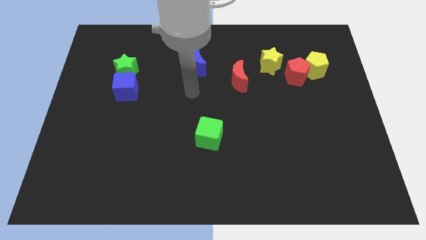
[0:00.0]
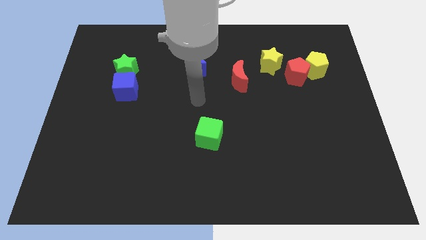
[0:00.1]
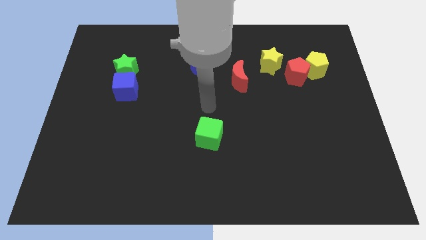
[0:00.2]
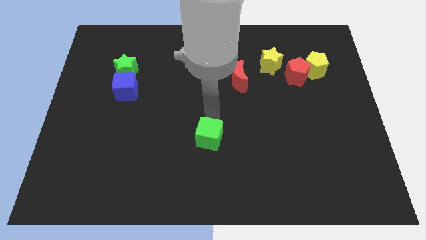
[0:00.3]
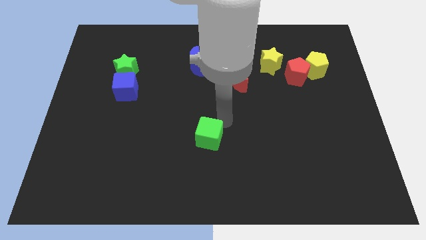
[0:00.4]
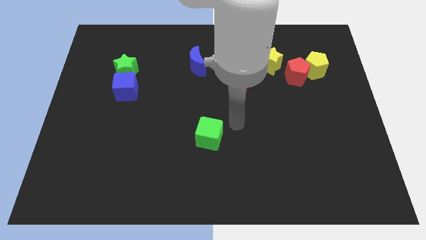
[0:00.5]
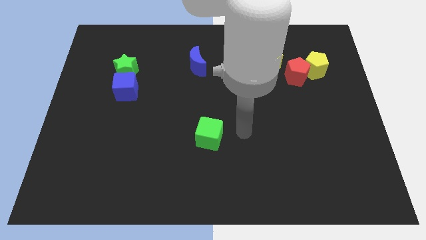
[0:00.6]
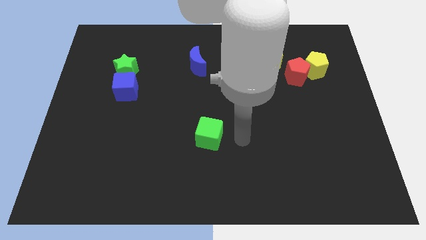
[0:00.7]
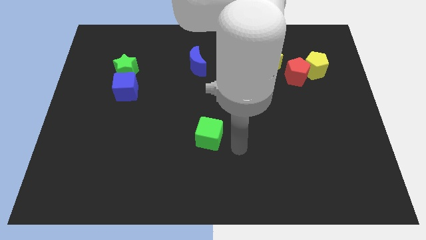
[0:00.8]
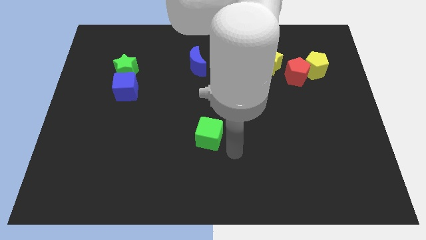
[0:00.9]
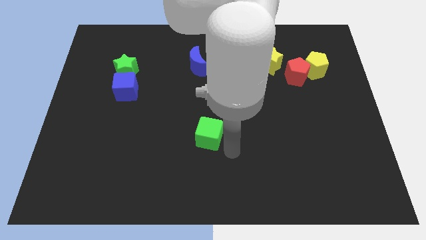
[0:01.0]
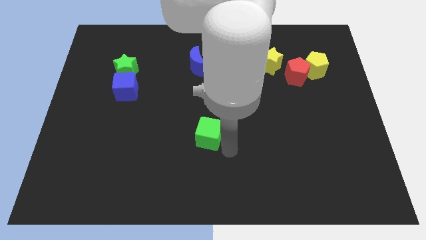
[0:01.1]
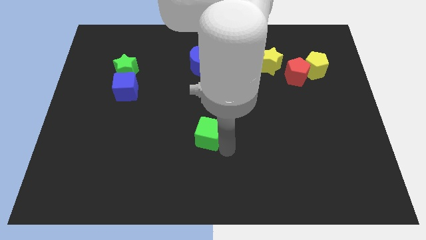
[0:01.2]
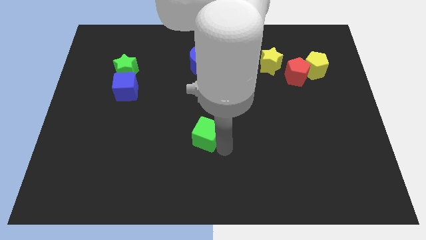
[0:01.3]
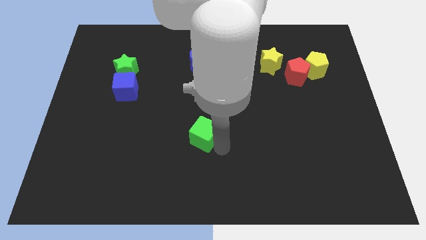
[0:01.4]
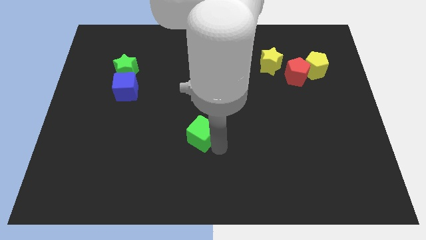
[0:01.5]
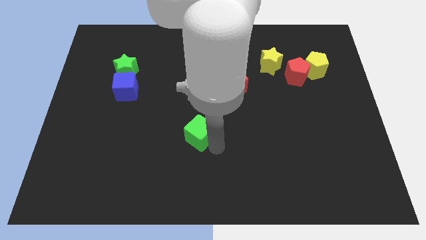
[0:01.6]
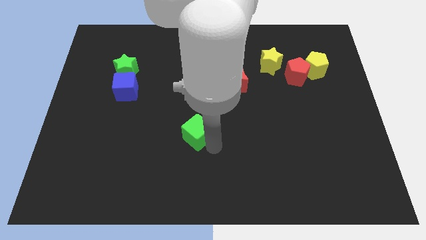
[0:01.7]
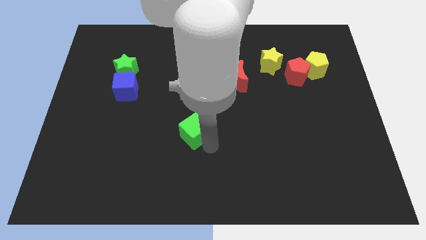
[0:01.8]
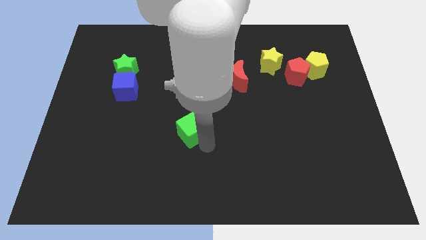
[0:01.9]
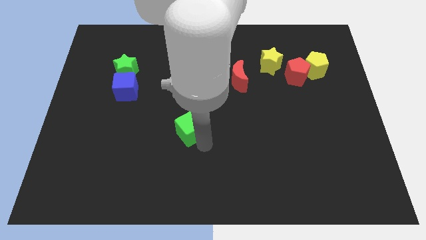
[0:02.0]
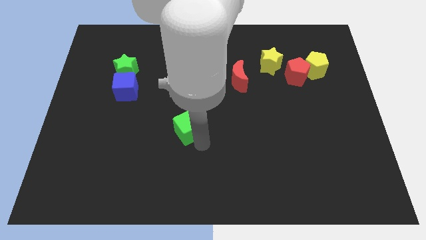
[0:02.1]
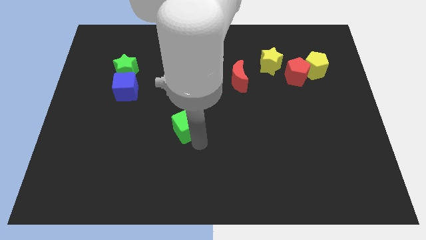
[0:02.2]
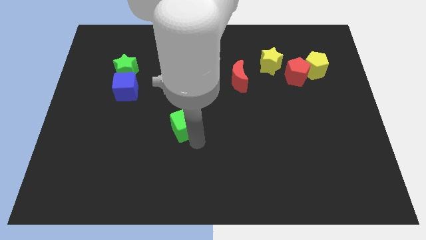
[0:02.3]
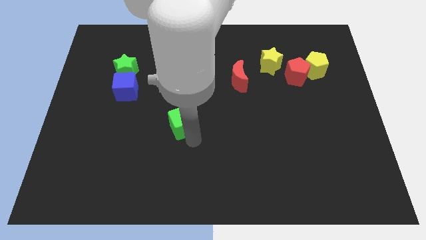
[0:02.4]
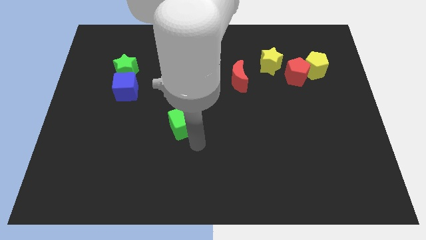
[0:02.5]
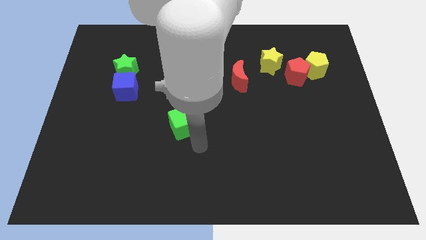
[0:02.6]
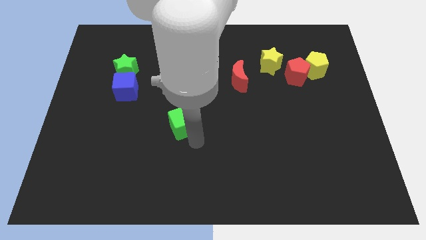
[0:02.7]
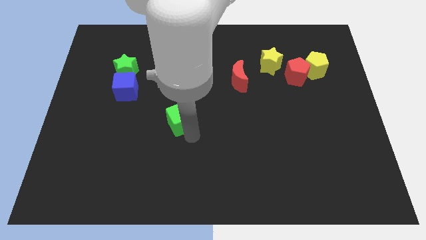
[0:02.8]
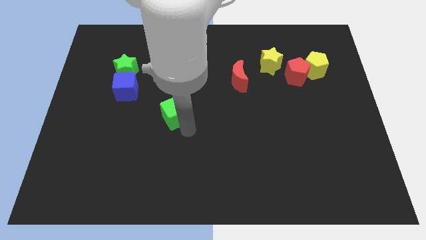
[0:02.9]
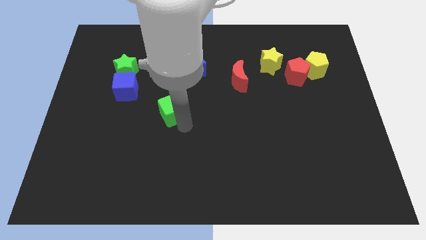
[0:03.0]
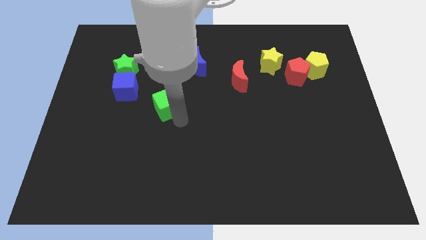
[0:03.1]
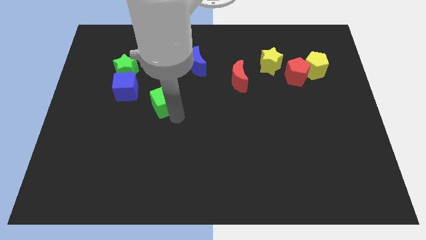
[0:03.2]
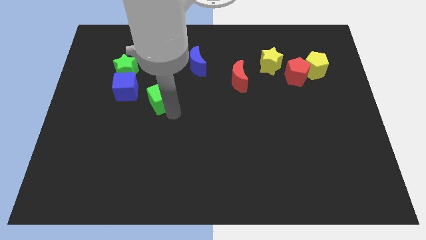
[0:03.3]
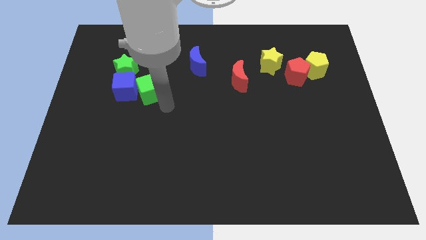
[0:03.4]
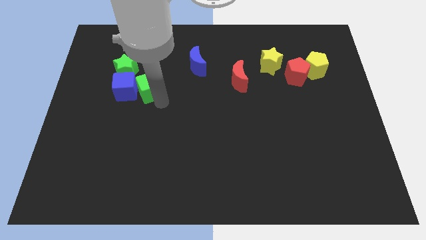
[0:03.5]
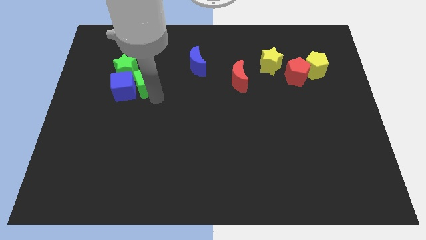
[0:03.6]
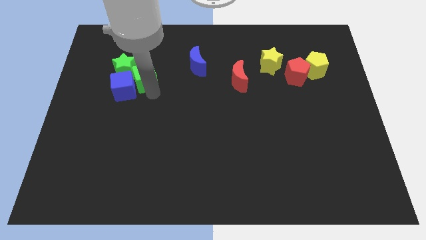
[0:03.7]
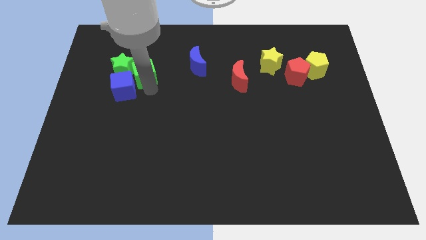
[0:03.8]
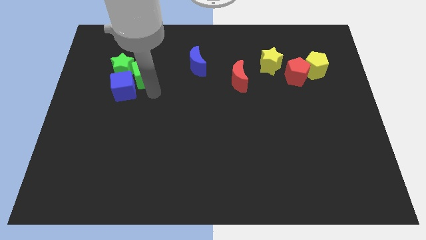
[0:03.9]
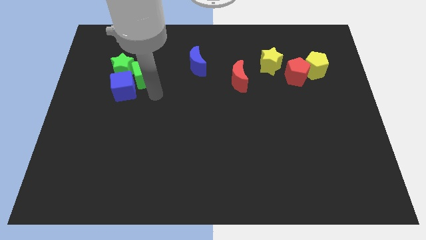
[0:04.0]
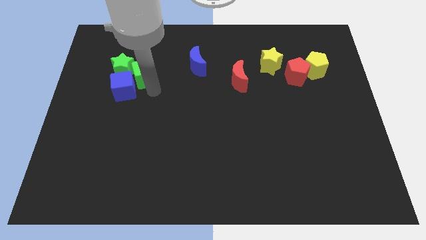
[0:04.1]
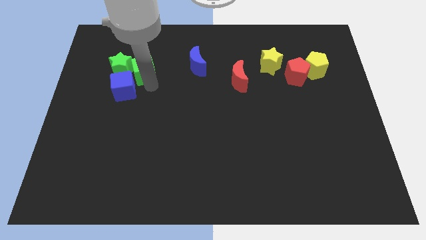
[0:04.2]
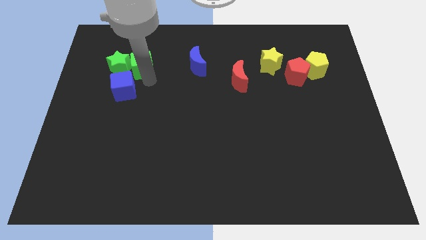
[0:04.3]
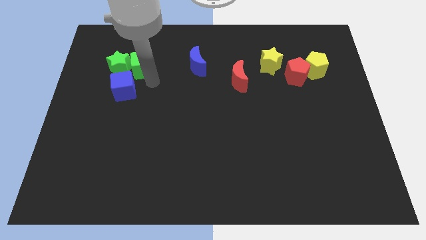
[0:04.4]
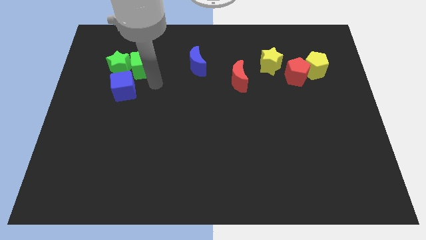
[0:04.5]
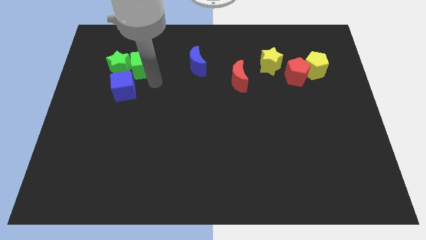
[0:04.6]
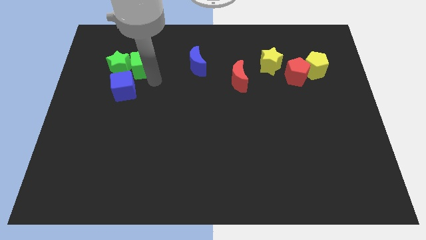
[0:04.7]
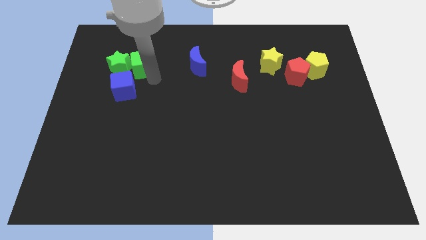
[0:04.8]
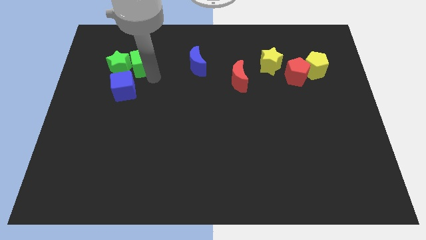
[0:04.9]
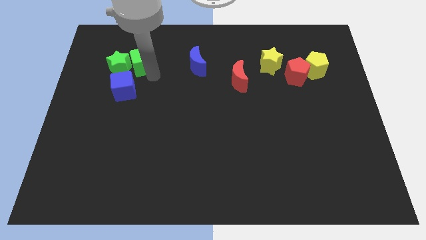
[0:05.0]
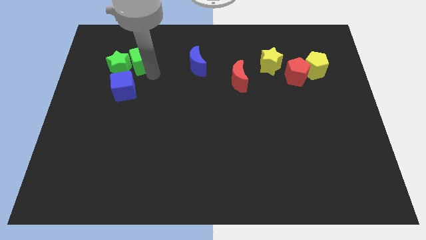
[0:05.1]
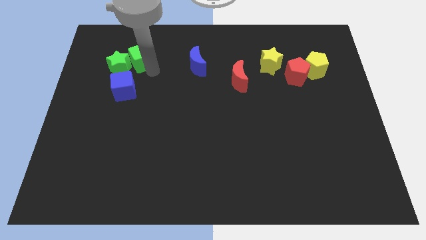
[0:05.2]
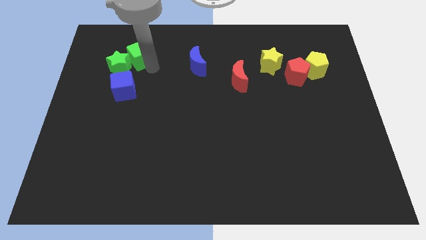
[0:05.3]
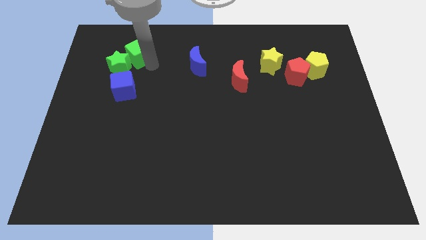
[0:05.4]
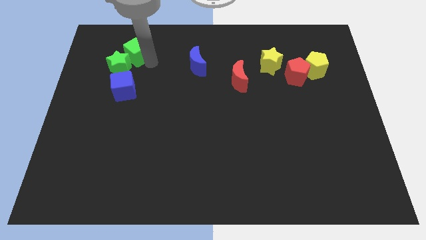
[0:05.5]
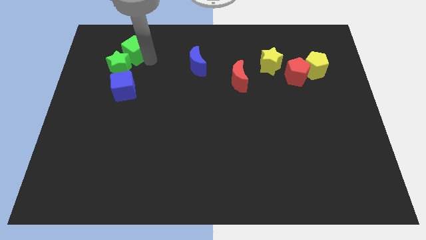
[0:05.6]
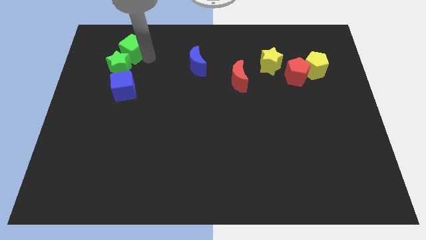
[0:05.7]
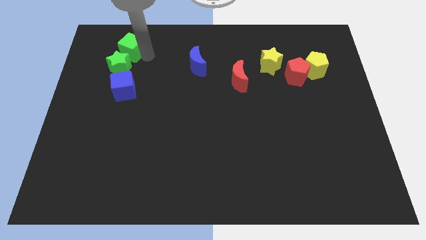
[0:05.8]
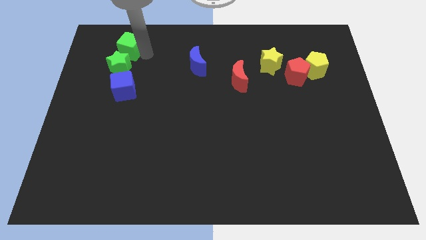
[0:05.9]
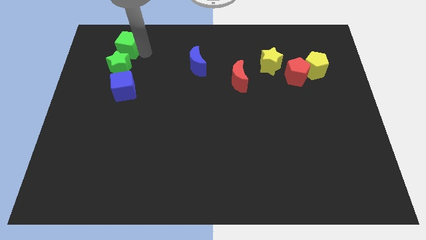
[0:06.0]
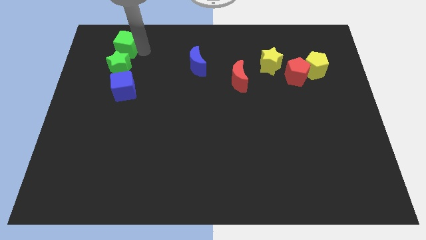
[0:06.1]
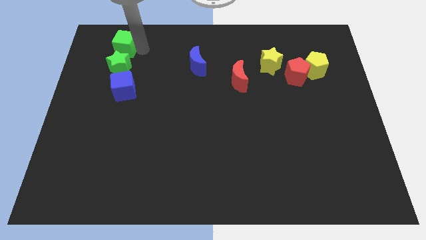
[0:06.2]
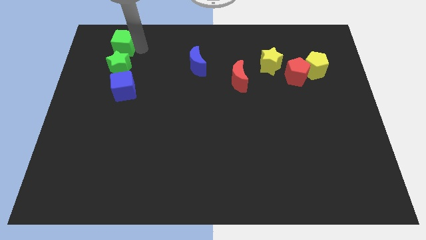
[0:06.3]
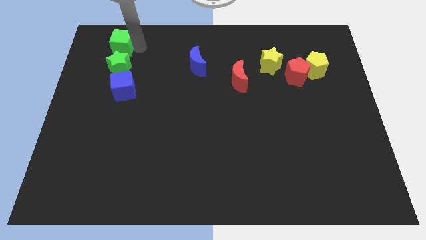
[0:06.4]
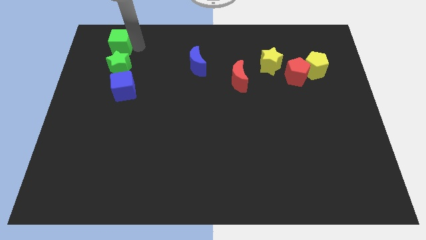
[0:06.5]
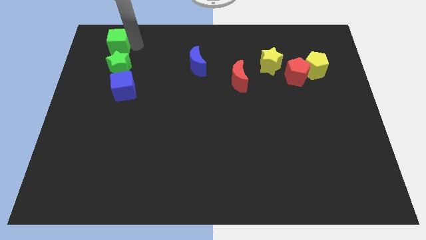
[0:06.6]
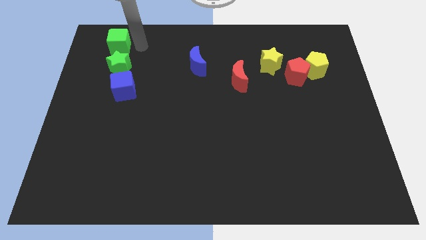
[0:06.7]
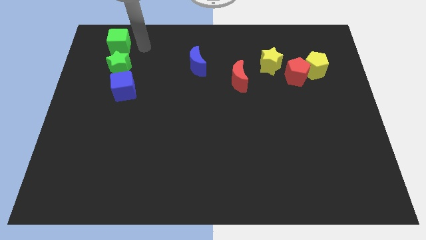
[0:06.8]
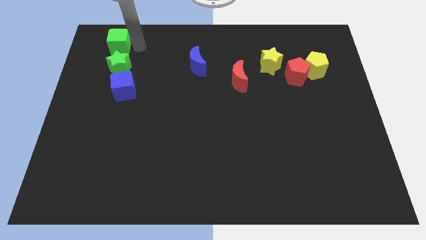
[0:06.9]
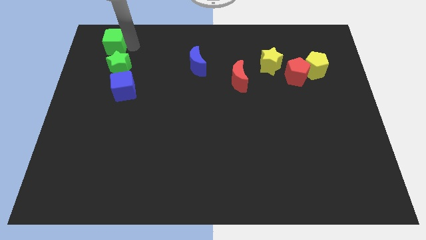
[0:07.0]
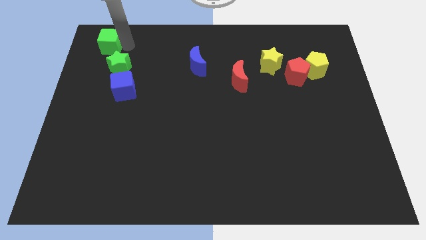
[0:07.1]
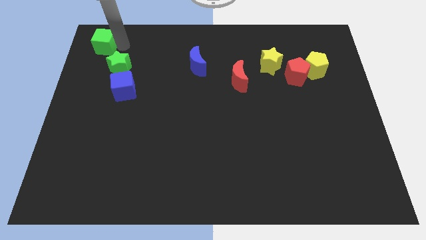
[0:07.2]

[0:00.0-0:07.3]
move the green cube to the top left corner
